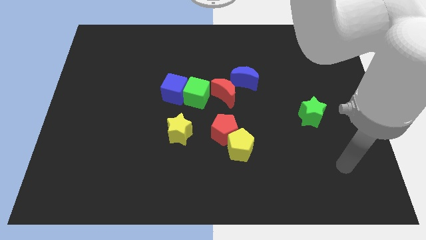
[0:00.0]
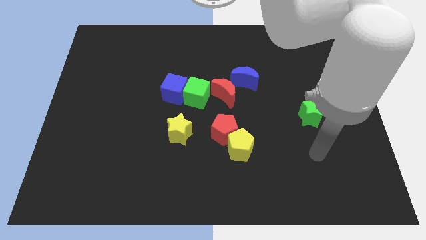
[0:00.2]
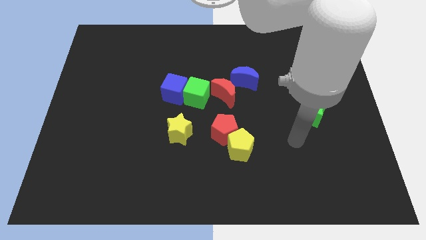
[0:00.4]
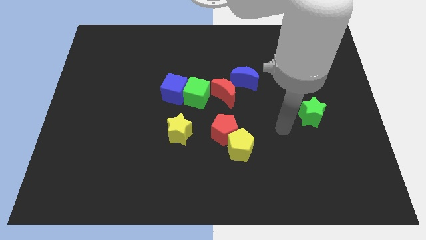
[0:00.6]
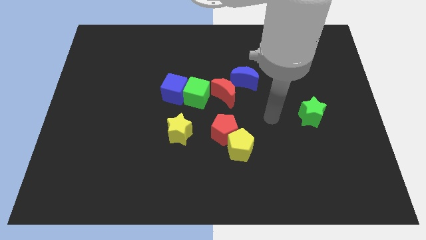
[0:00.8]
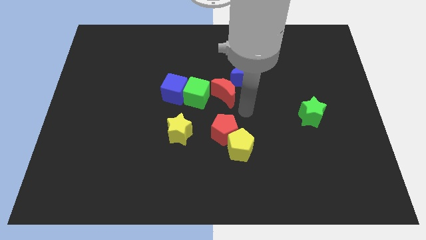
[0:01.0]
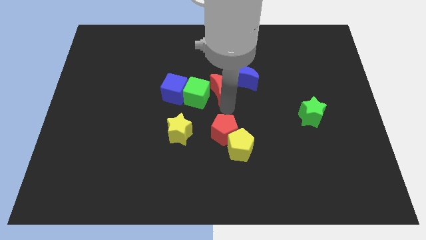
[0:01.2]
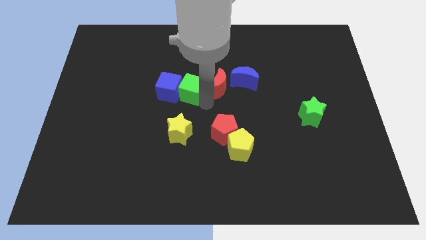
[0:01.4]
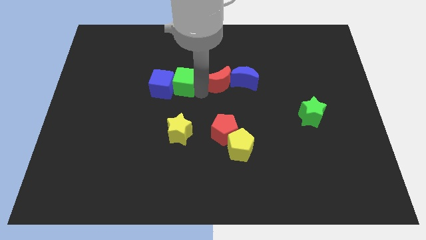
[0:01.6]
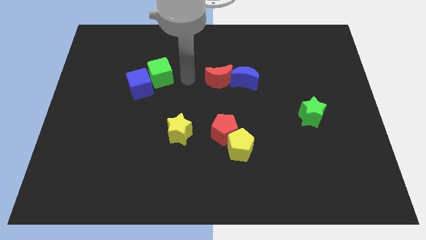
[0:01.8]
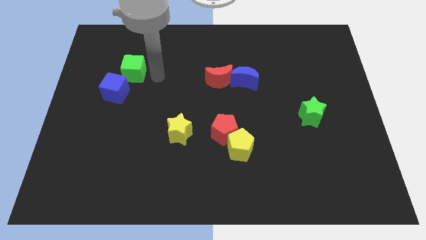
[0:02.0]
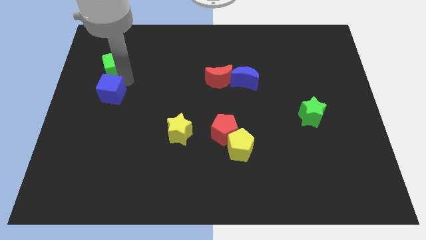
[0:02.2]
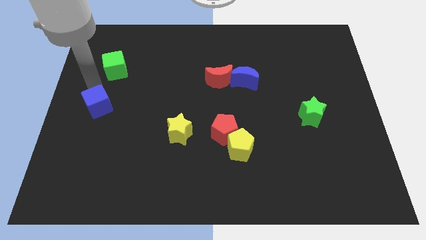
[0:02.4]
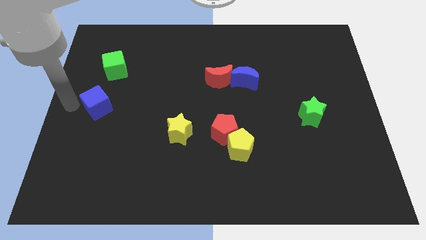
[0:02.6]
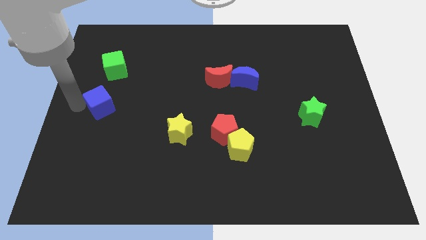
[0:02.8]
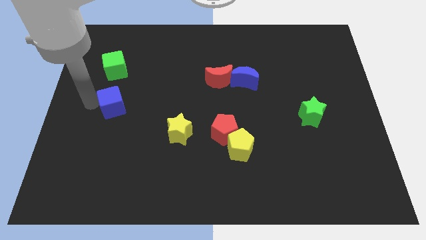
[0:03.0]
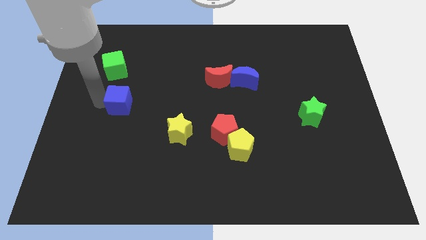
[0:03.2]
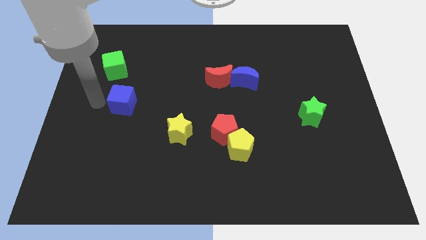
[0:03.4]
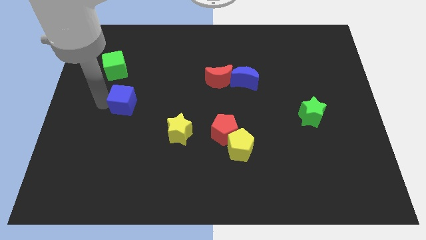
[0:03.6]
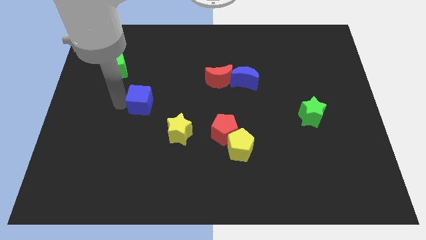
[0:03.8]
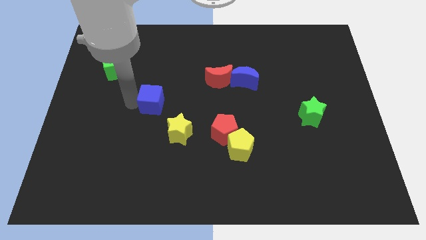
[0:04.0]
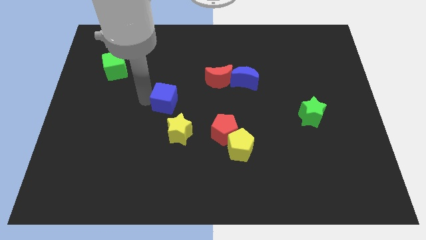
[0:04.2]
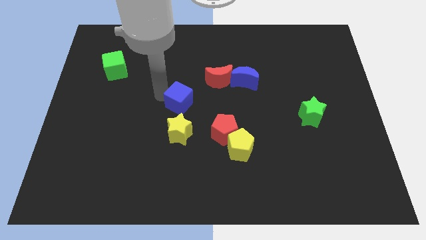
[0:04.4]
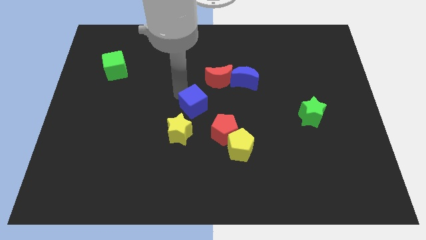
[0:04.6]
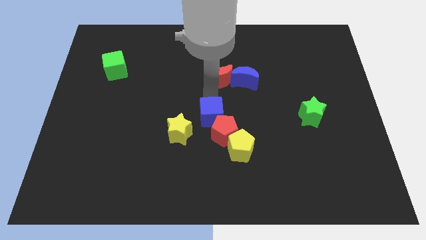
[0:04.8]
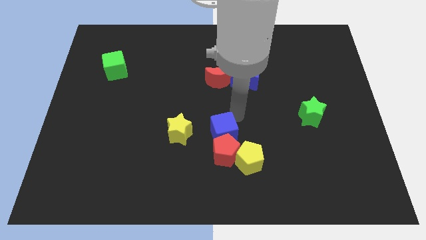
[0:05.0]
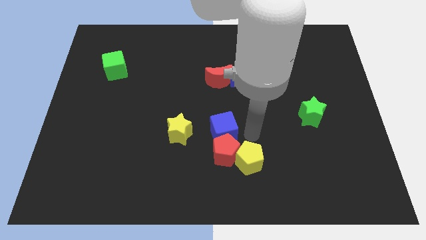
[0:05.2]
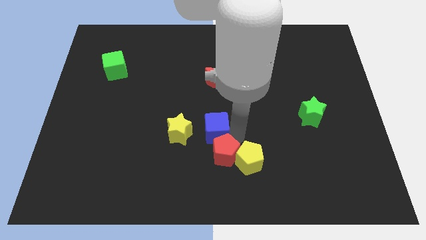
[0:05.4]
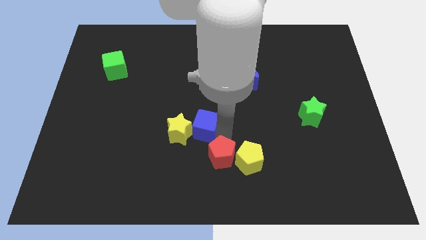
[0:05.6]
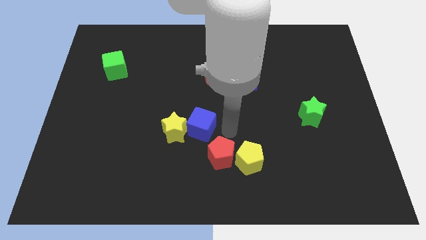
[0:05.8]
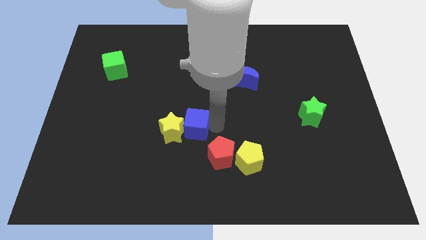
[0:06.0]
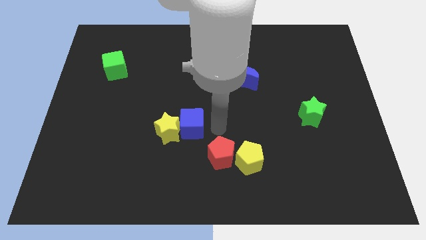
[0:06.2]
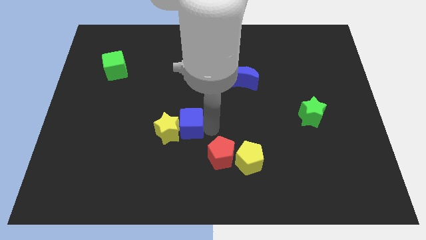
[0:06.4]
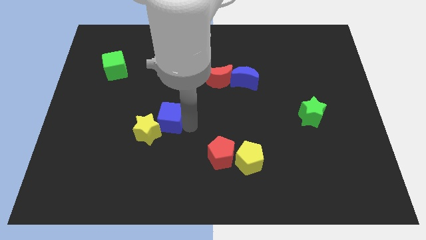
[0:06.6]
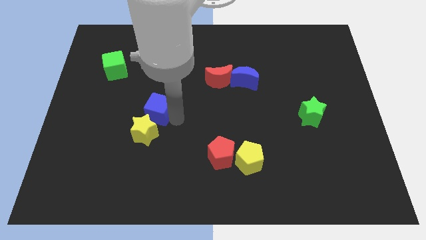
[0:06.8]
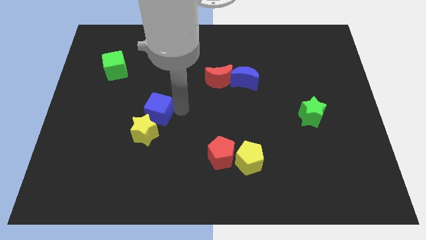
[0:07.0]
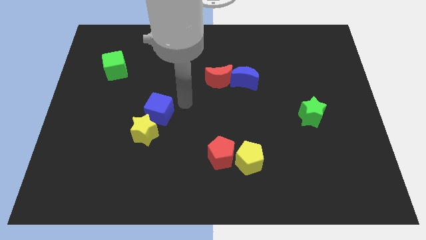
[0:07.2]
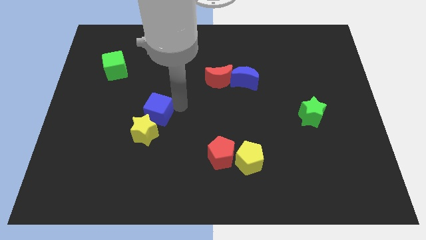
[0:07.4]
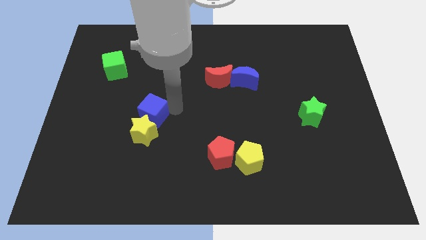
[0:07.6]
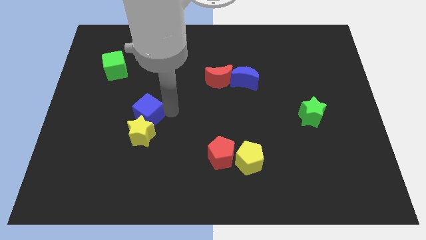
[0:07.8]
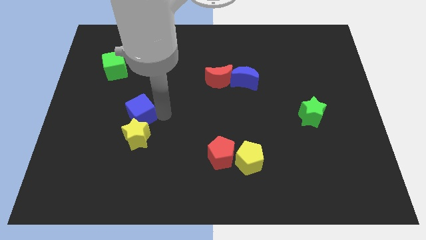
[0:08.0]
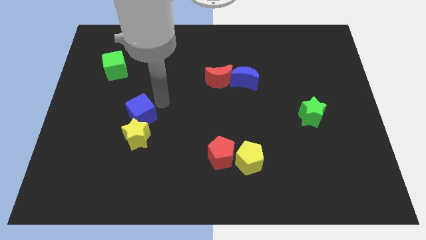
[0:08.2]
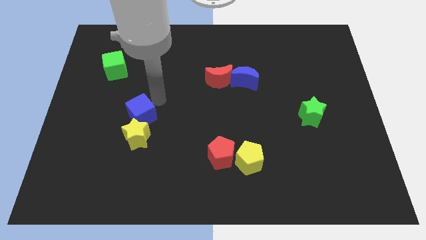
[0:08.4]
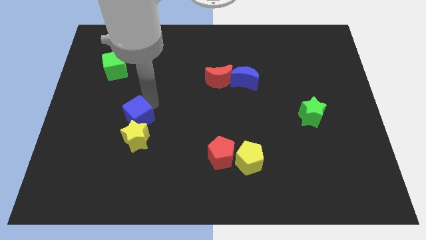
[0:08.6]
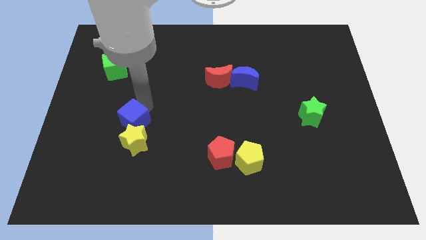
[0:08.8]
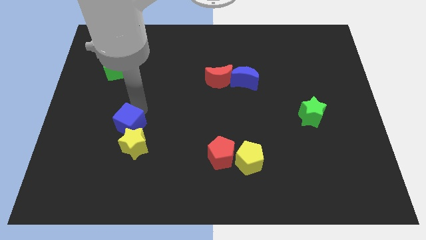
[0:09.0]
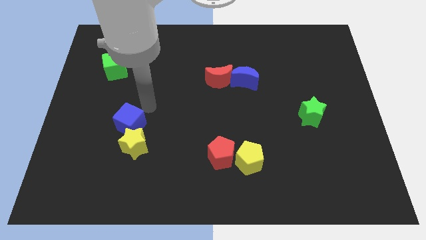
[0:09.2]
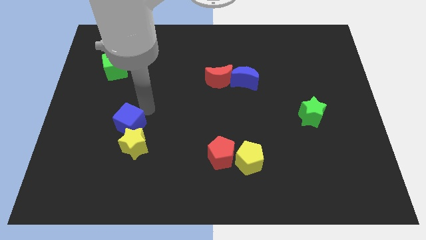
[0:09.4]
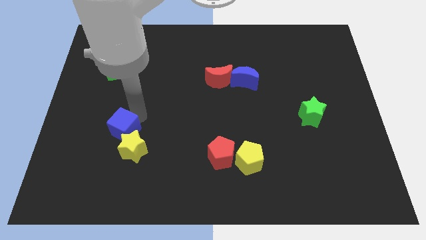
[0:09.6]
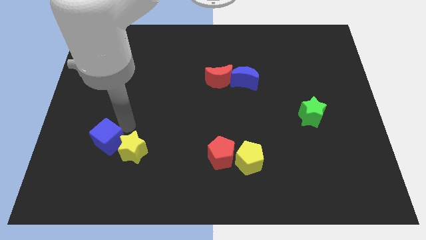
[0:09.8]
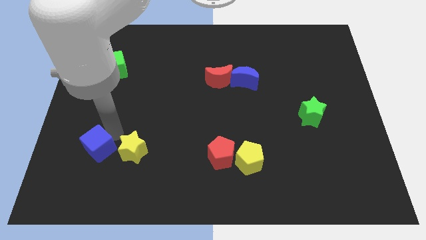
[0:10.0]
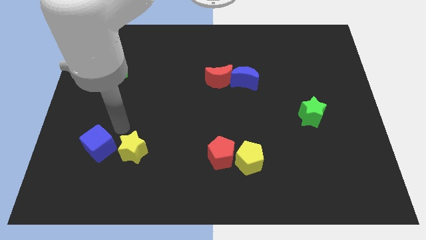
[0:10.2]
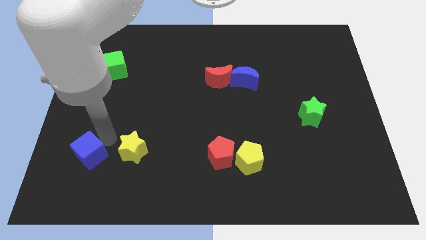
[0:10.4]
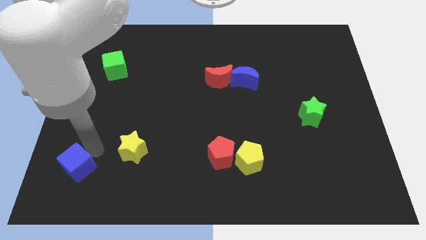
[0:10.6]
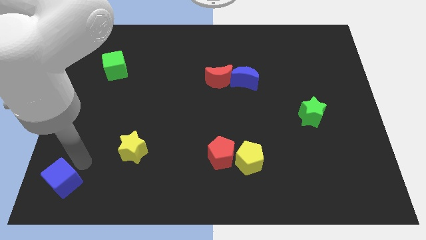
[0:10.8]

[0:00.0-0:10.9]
push the blue cube to the lower left corner

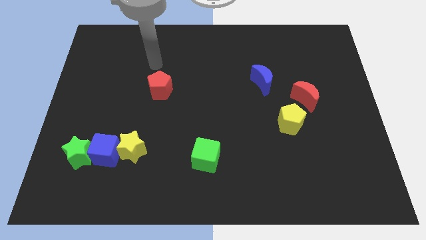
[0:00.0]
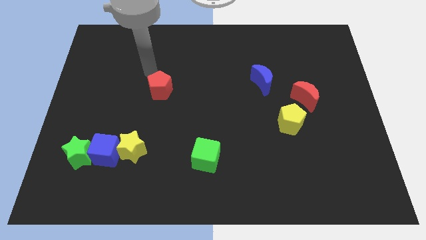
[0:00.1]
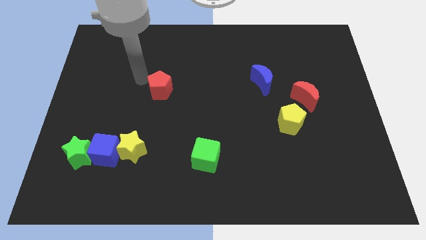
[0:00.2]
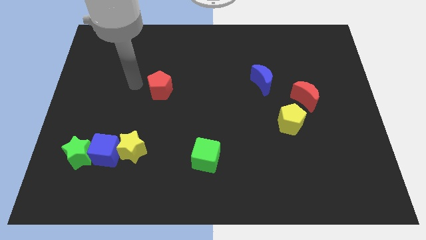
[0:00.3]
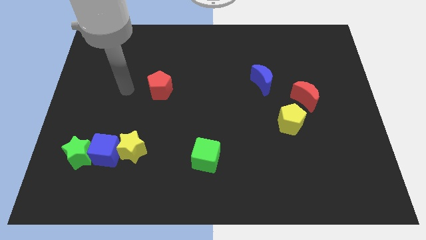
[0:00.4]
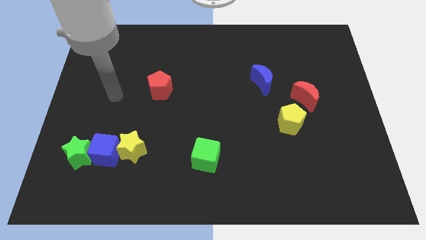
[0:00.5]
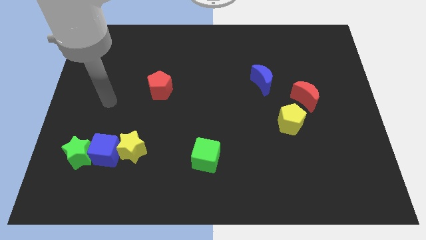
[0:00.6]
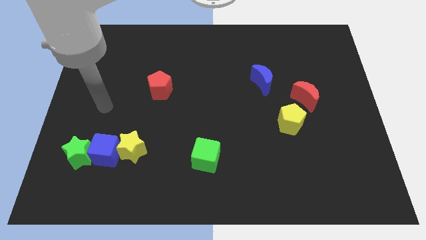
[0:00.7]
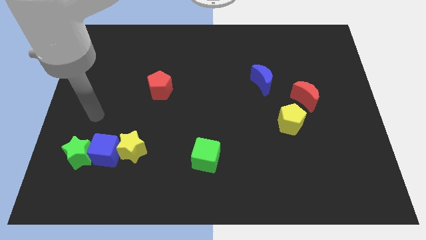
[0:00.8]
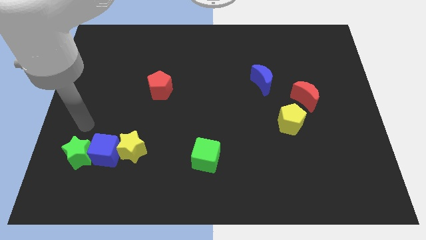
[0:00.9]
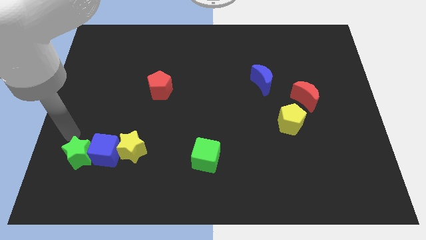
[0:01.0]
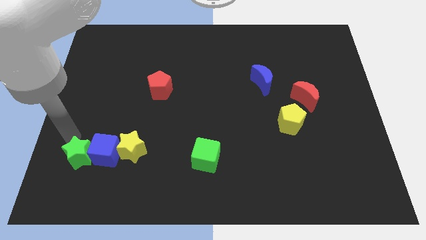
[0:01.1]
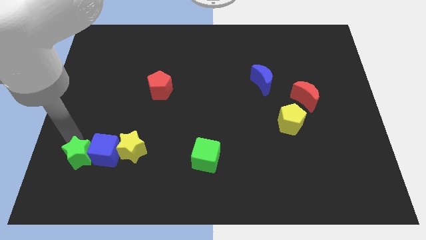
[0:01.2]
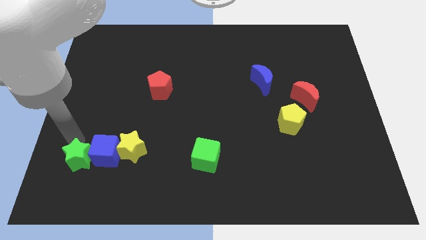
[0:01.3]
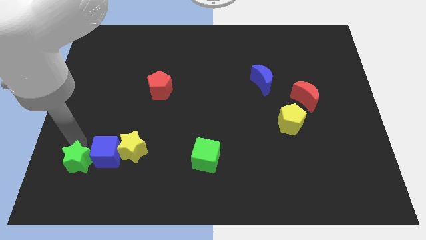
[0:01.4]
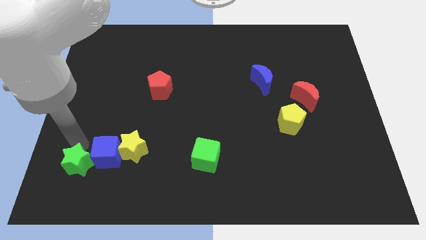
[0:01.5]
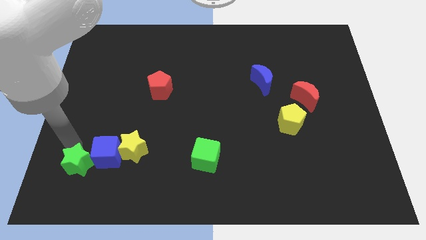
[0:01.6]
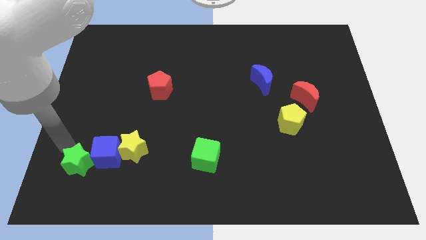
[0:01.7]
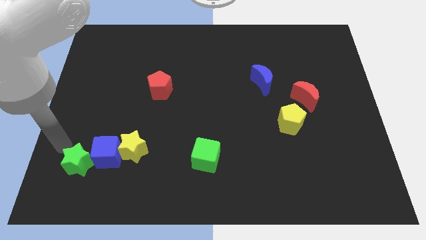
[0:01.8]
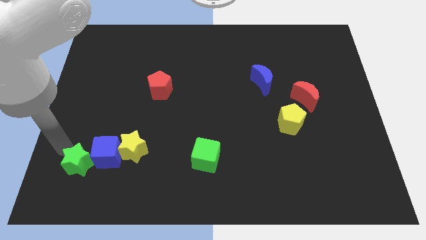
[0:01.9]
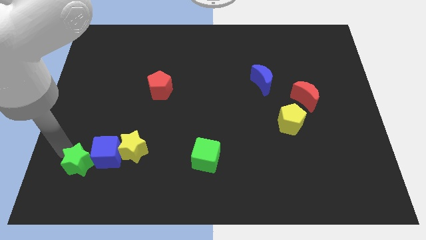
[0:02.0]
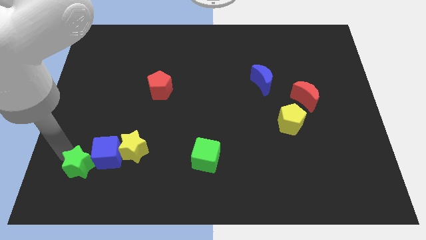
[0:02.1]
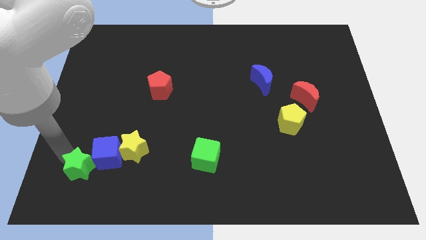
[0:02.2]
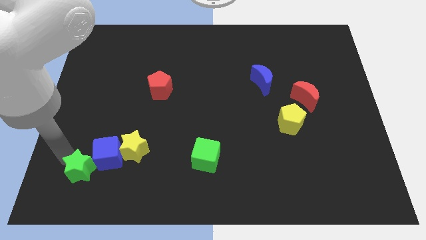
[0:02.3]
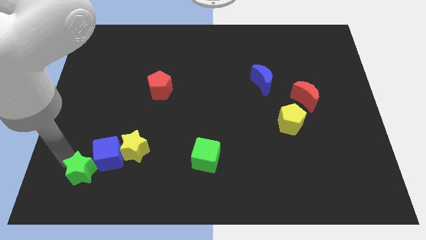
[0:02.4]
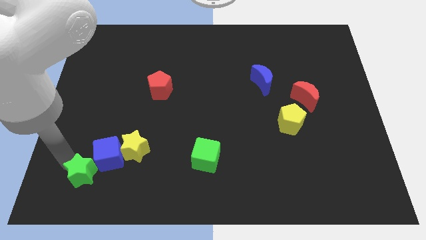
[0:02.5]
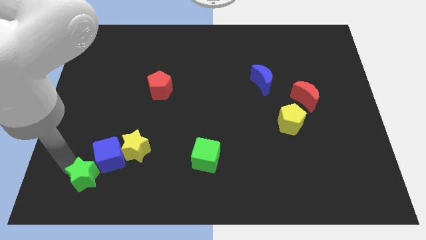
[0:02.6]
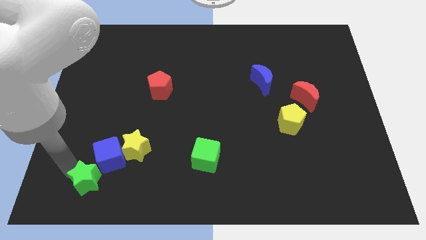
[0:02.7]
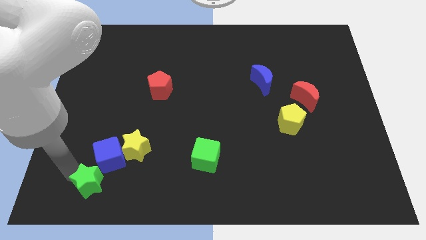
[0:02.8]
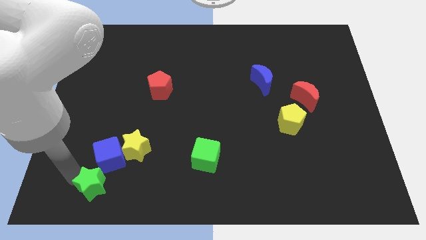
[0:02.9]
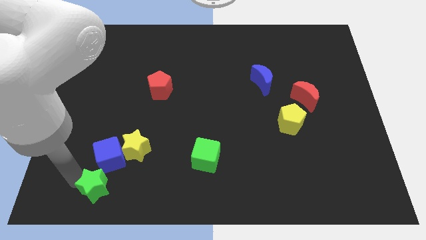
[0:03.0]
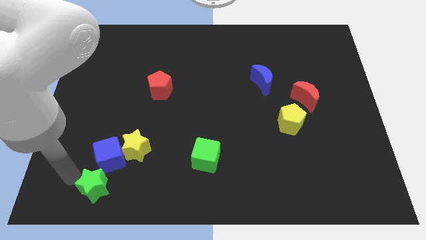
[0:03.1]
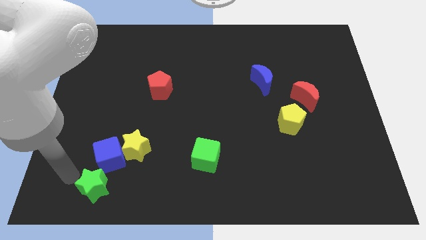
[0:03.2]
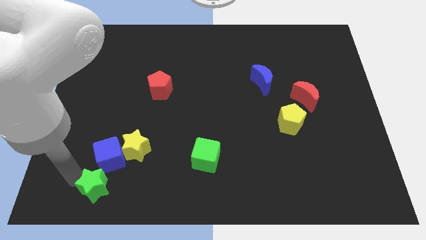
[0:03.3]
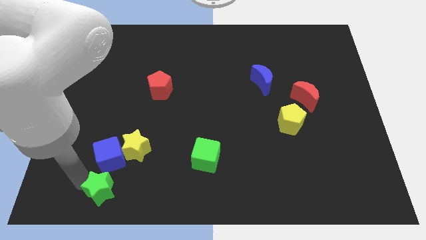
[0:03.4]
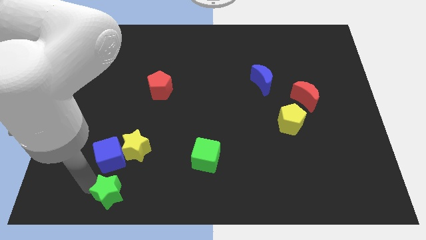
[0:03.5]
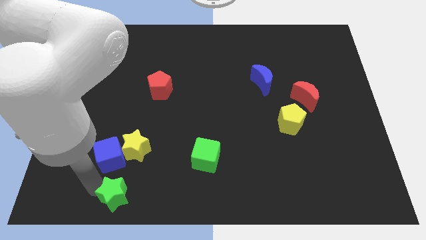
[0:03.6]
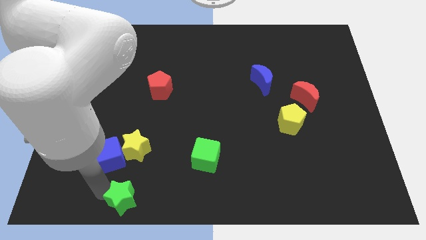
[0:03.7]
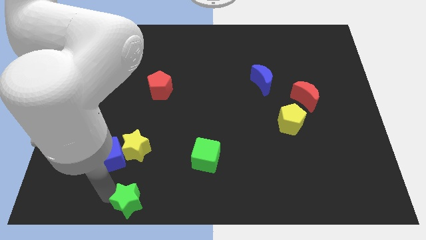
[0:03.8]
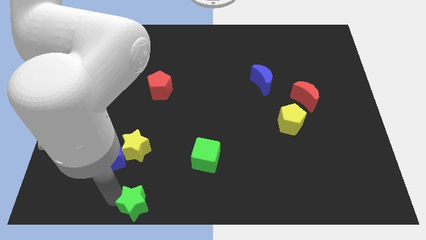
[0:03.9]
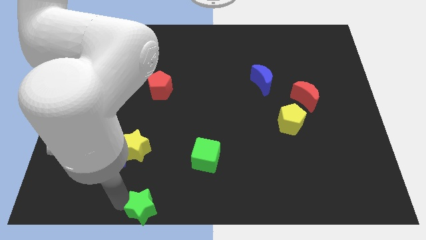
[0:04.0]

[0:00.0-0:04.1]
put the green star to the bottom side
